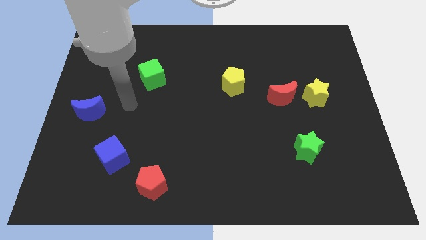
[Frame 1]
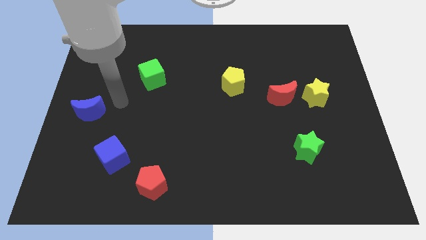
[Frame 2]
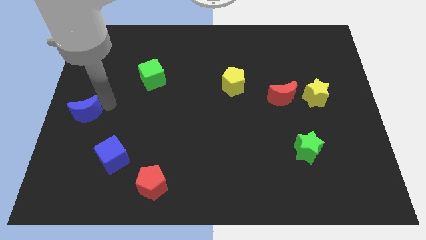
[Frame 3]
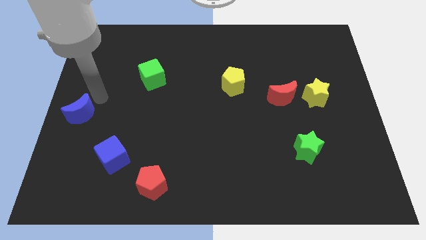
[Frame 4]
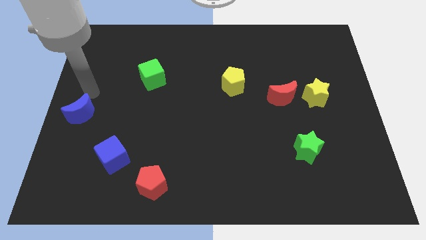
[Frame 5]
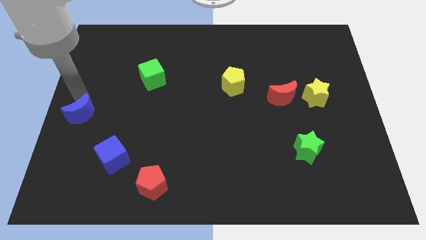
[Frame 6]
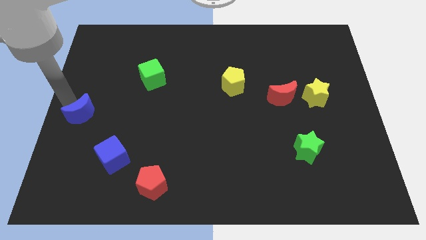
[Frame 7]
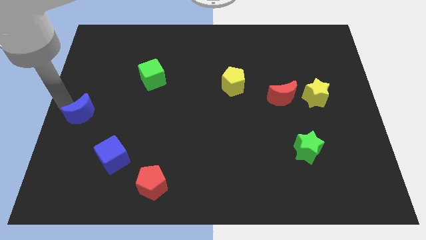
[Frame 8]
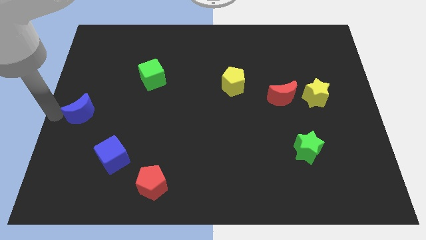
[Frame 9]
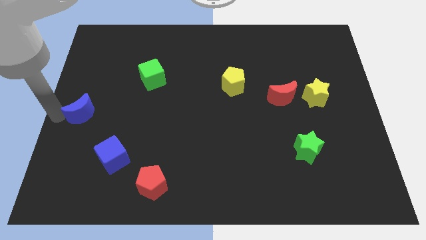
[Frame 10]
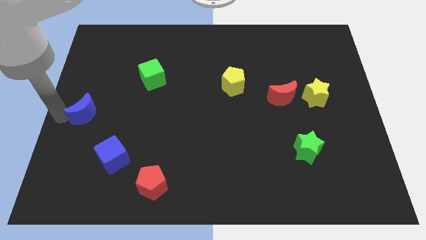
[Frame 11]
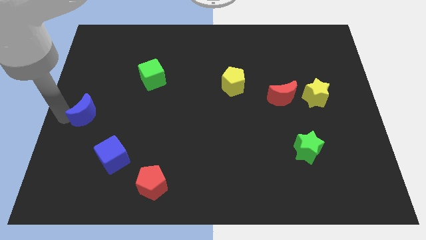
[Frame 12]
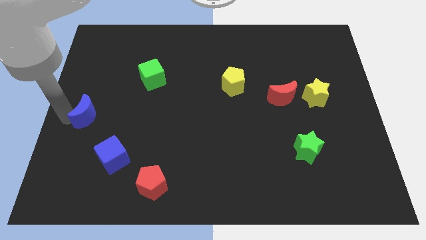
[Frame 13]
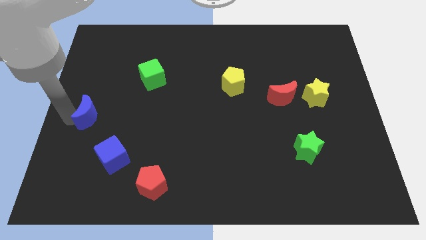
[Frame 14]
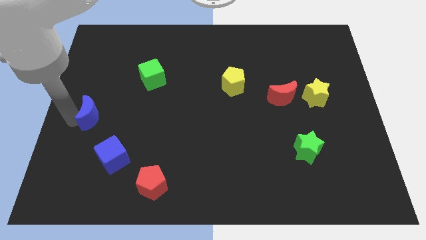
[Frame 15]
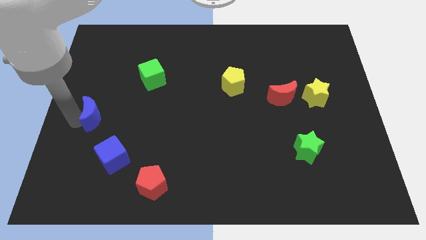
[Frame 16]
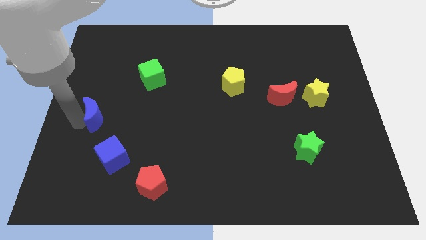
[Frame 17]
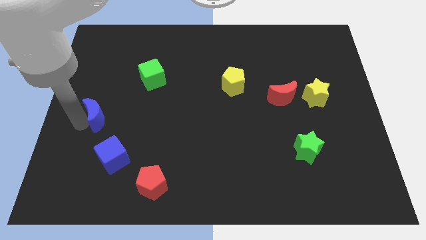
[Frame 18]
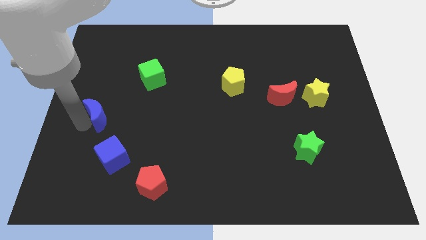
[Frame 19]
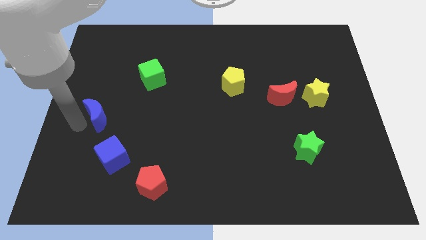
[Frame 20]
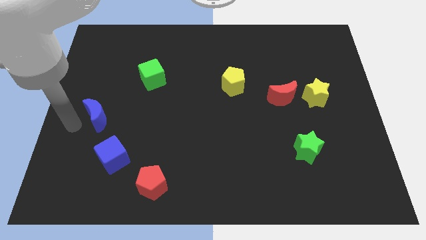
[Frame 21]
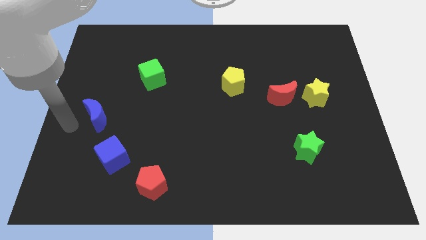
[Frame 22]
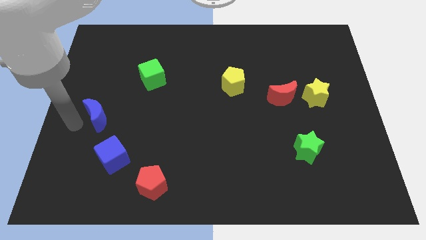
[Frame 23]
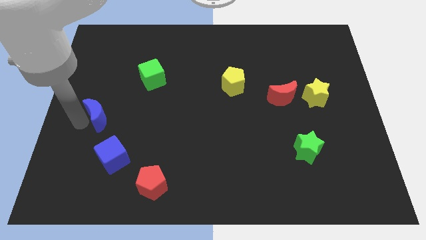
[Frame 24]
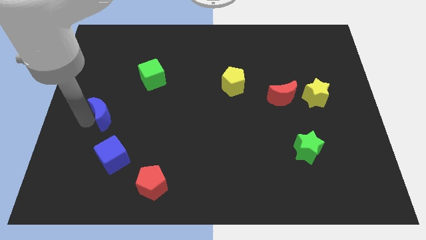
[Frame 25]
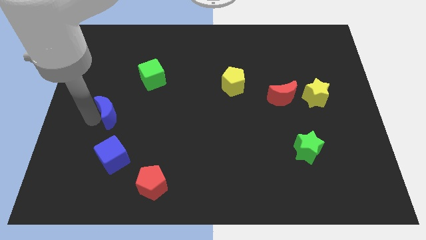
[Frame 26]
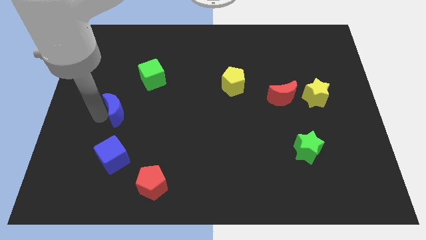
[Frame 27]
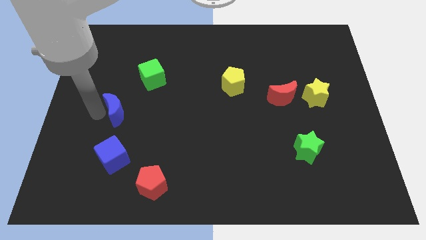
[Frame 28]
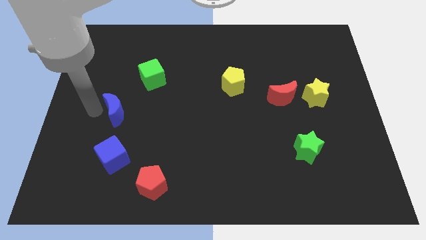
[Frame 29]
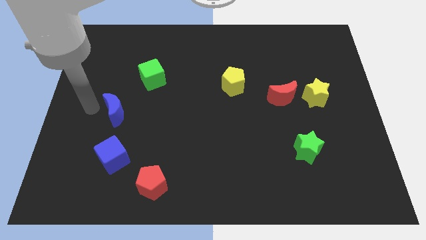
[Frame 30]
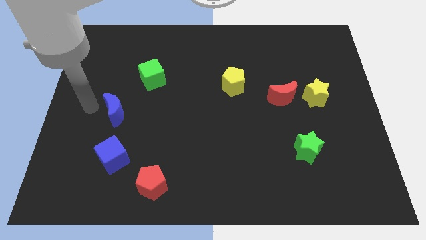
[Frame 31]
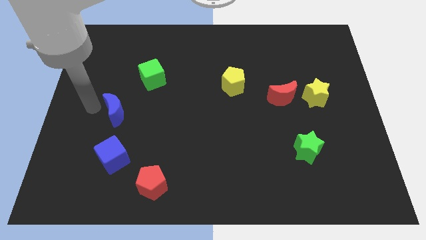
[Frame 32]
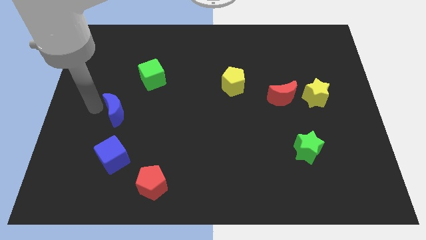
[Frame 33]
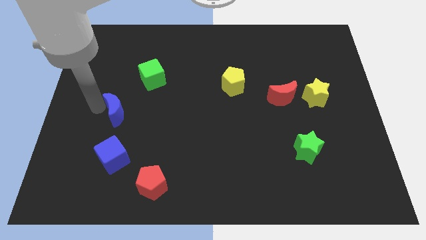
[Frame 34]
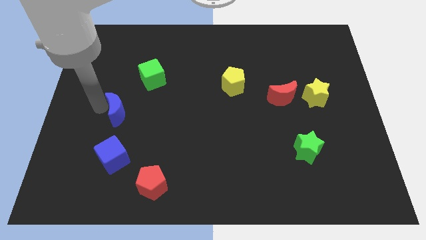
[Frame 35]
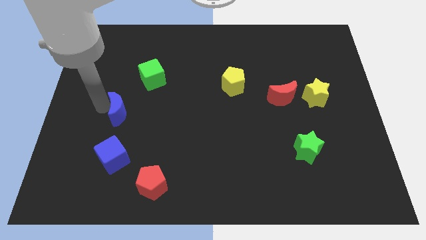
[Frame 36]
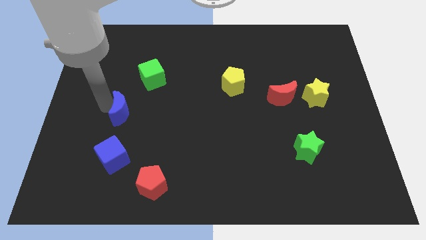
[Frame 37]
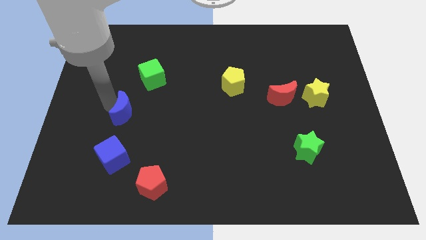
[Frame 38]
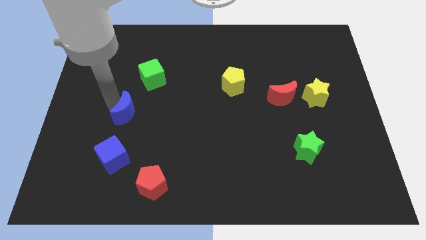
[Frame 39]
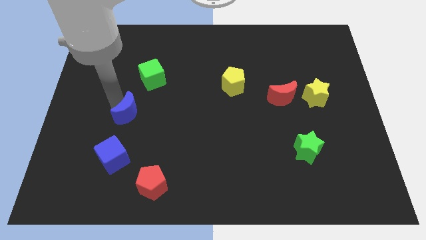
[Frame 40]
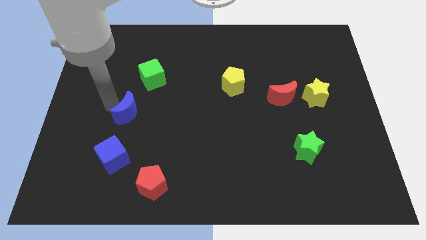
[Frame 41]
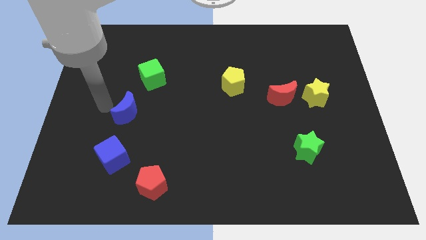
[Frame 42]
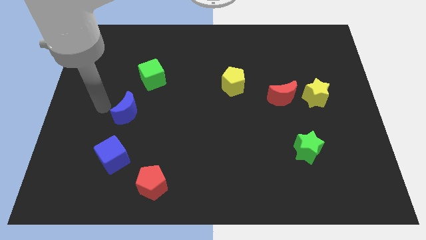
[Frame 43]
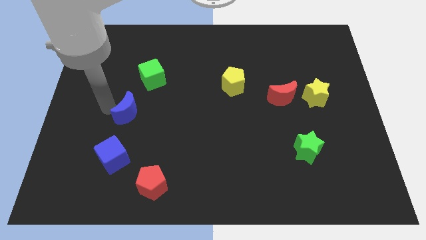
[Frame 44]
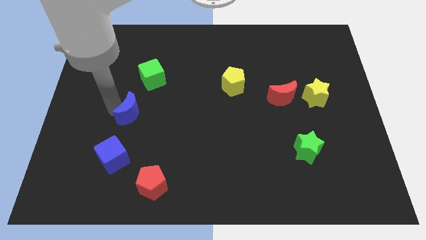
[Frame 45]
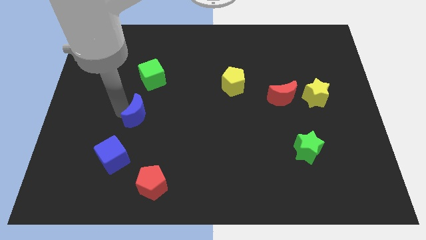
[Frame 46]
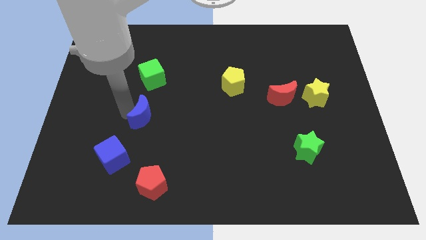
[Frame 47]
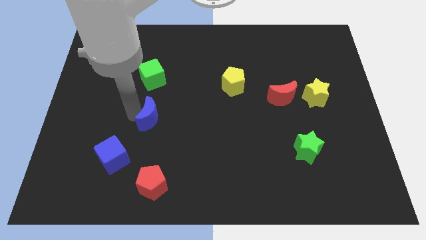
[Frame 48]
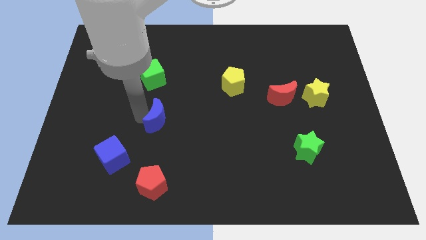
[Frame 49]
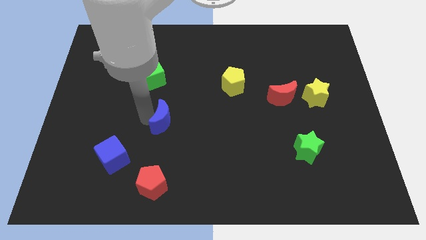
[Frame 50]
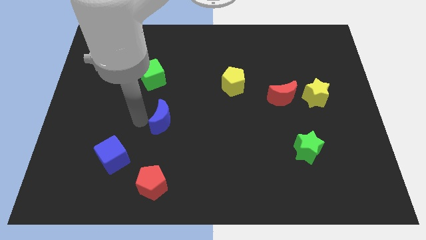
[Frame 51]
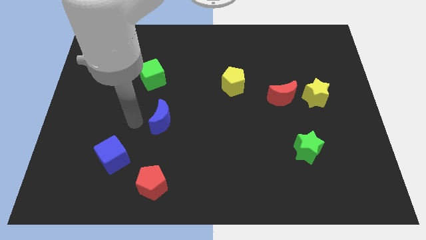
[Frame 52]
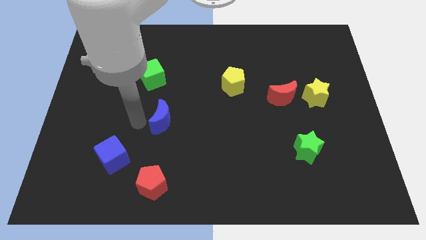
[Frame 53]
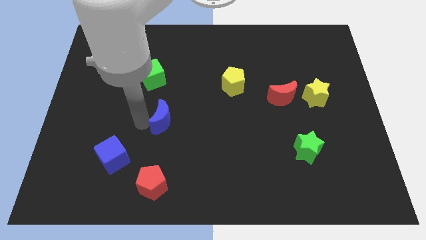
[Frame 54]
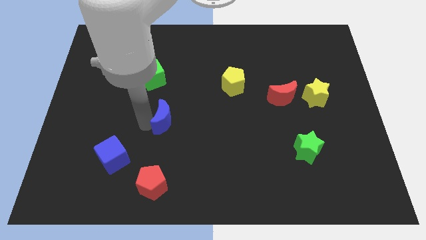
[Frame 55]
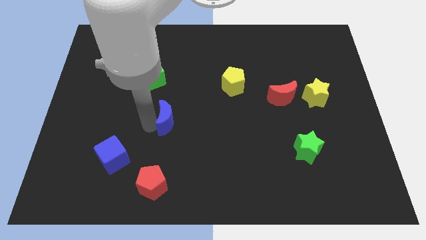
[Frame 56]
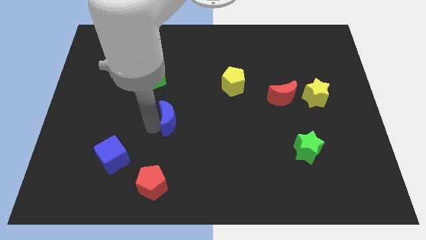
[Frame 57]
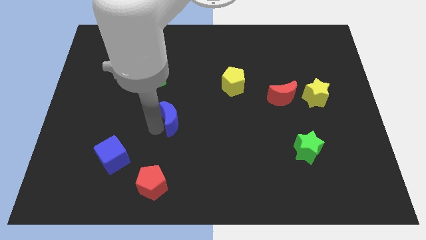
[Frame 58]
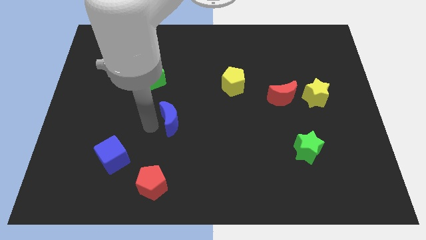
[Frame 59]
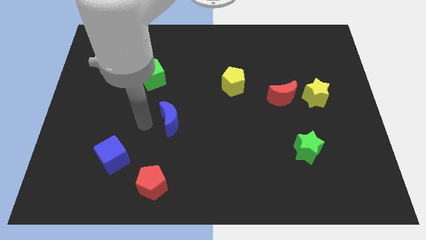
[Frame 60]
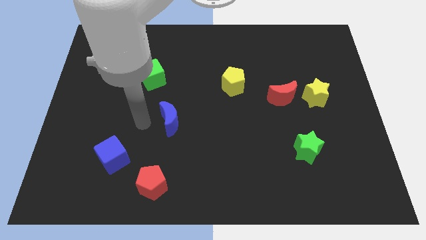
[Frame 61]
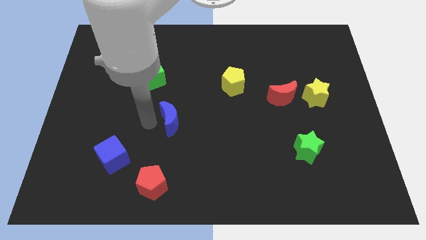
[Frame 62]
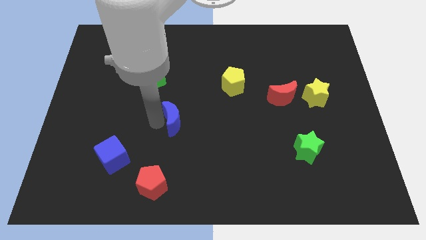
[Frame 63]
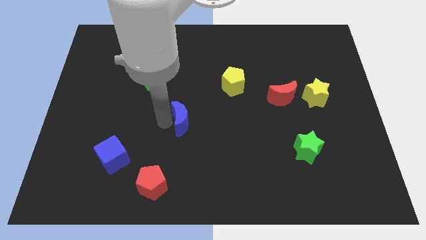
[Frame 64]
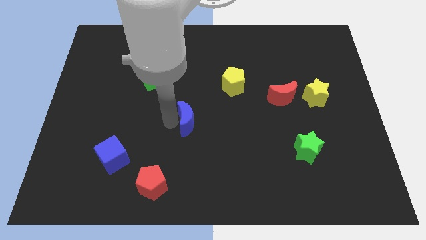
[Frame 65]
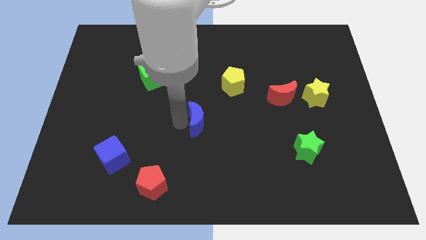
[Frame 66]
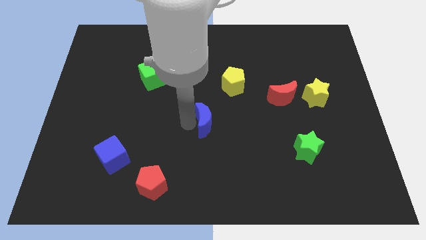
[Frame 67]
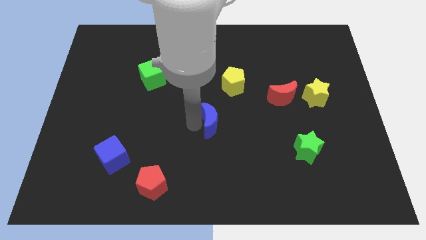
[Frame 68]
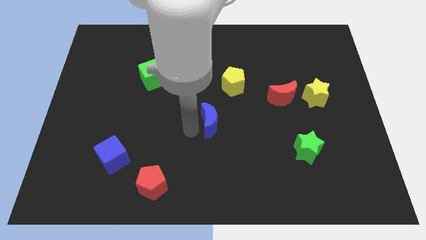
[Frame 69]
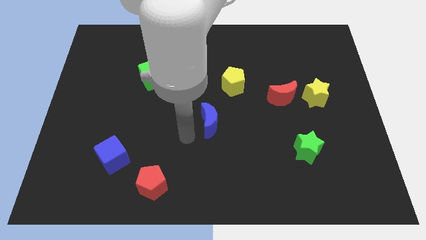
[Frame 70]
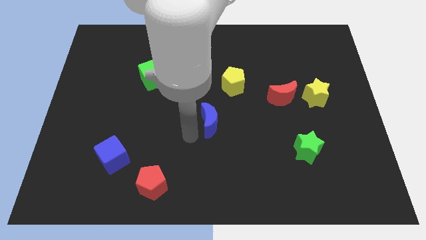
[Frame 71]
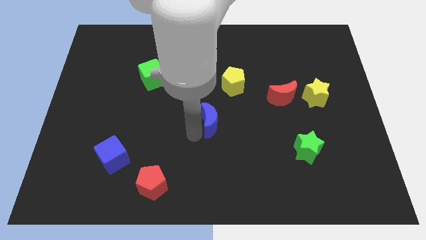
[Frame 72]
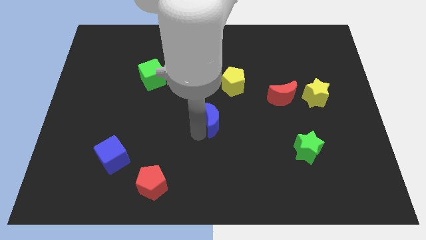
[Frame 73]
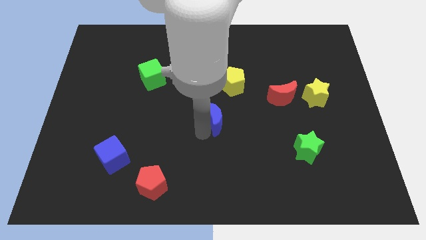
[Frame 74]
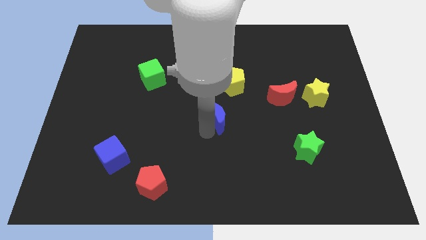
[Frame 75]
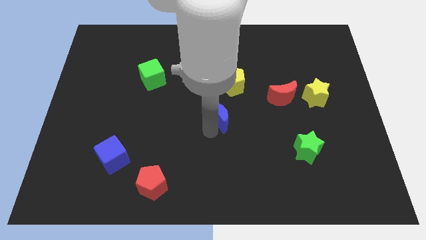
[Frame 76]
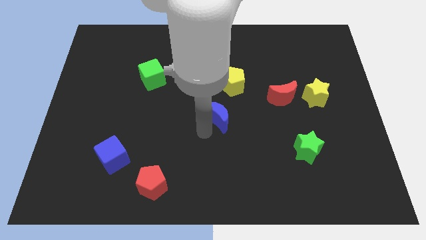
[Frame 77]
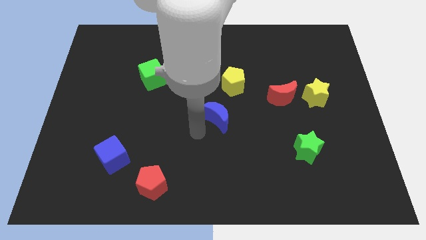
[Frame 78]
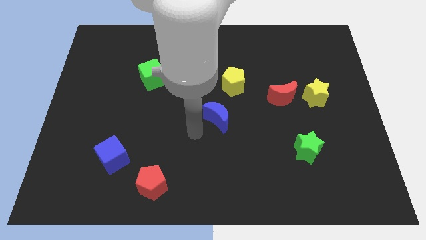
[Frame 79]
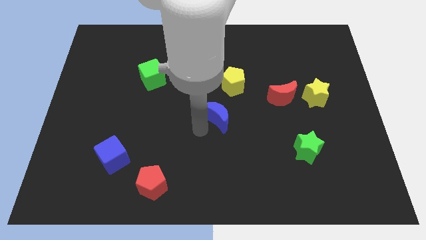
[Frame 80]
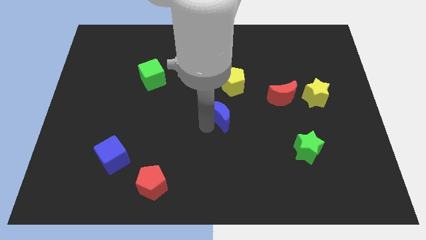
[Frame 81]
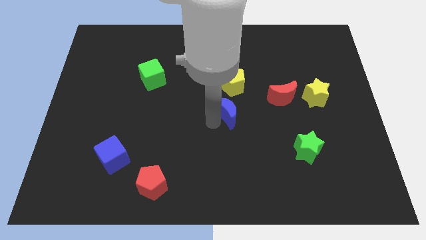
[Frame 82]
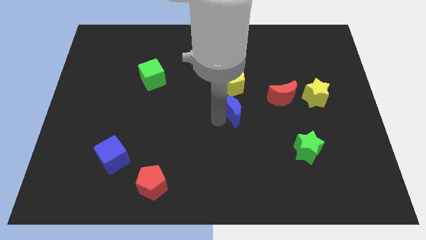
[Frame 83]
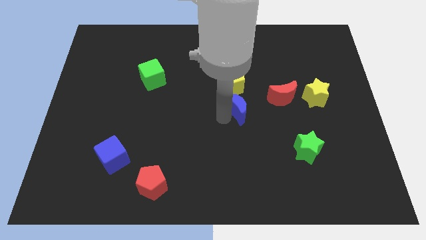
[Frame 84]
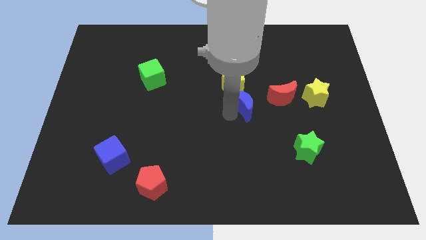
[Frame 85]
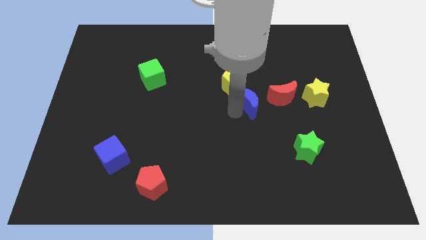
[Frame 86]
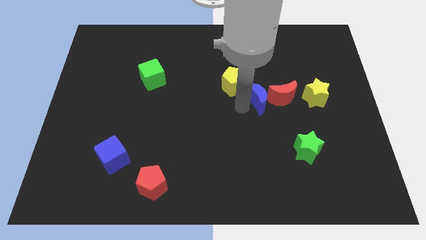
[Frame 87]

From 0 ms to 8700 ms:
push the blue moon close to the red moon
